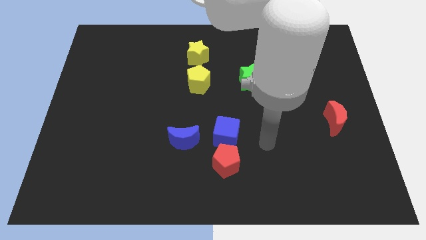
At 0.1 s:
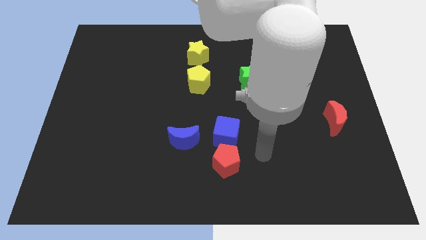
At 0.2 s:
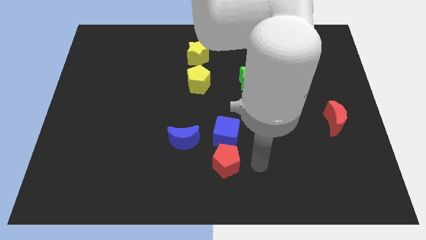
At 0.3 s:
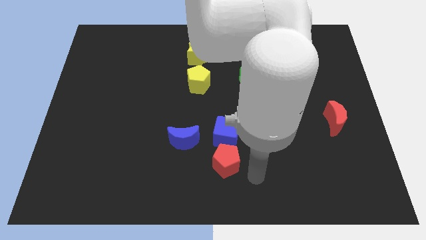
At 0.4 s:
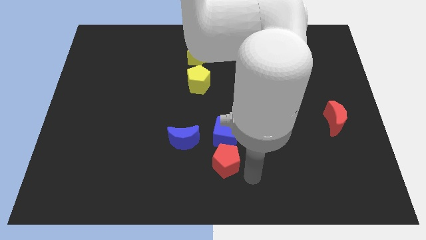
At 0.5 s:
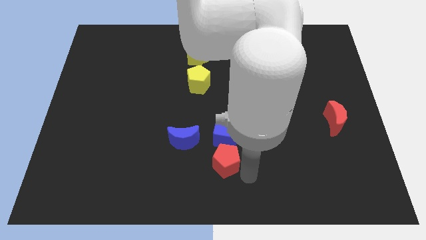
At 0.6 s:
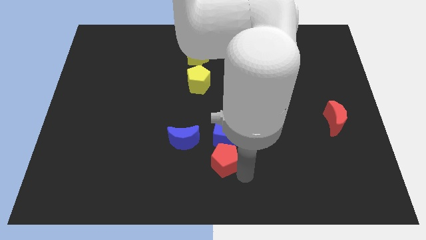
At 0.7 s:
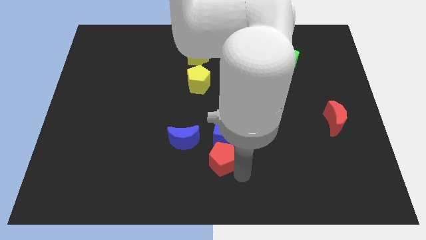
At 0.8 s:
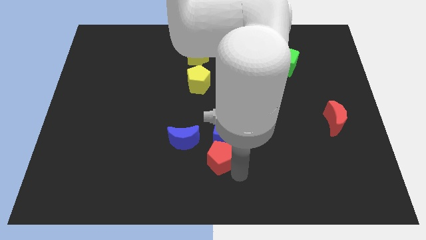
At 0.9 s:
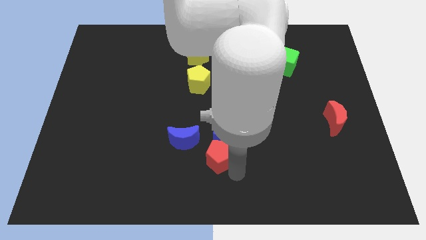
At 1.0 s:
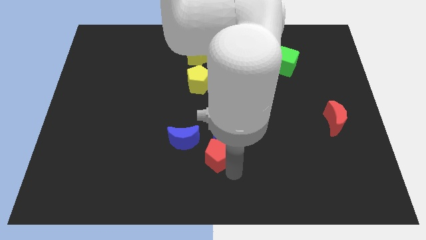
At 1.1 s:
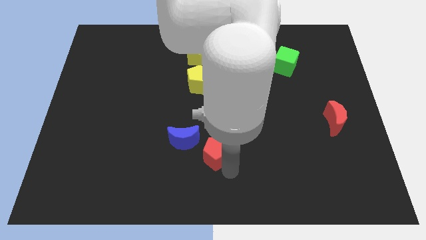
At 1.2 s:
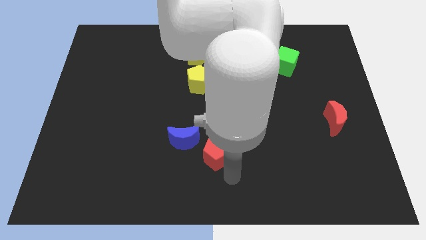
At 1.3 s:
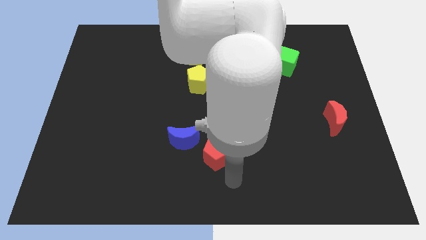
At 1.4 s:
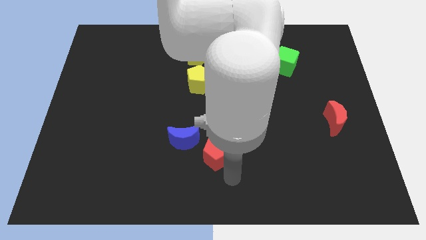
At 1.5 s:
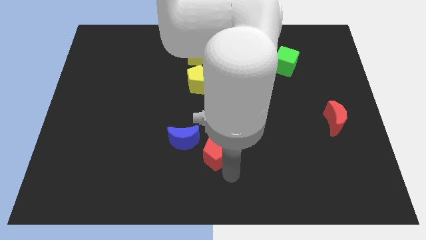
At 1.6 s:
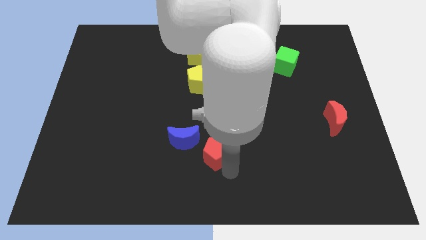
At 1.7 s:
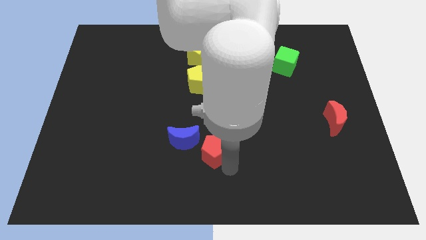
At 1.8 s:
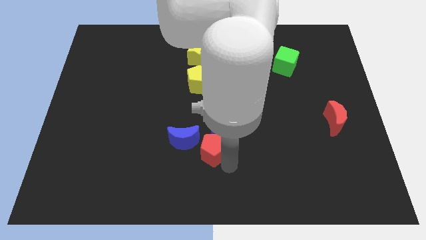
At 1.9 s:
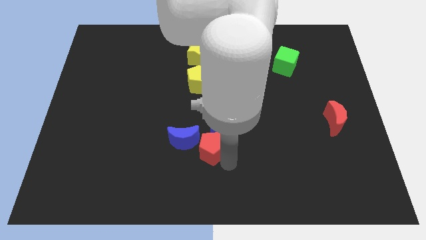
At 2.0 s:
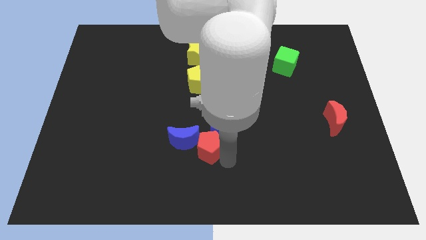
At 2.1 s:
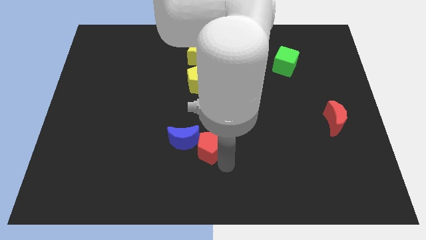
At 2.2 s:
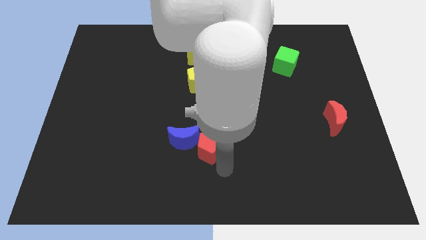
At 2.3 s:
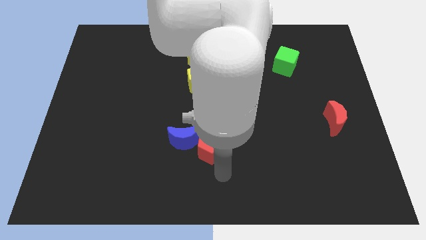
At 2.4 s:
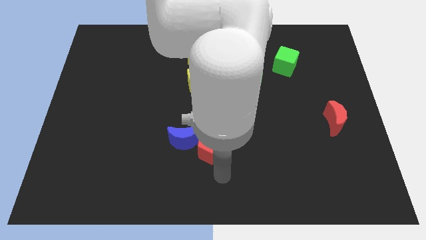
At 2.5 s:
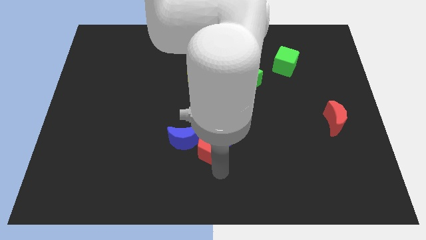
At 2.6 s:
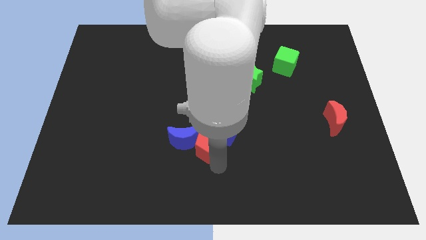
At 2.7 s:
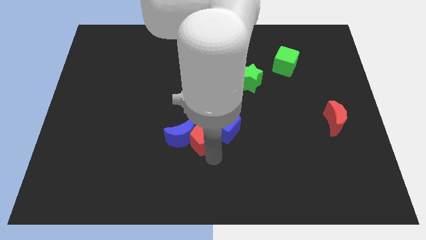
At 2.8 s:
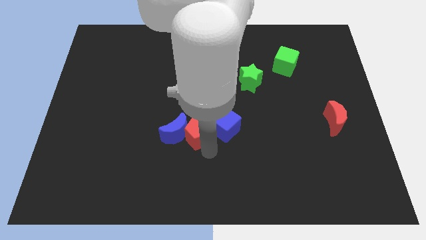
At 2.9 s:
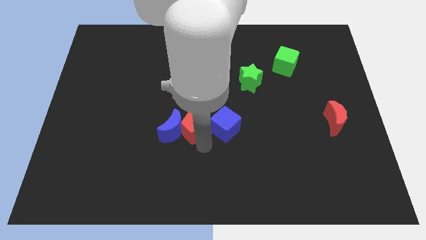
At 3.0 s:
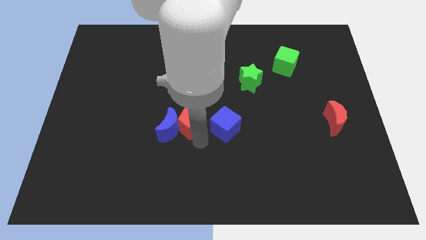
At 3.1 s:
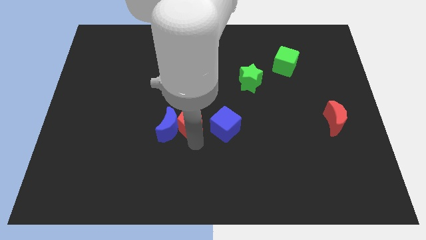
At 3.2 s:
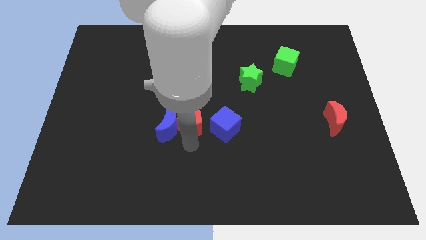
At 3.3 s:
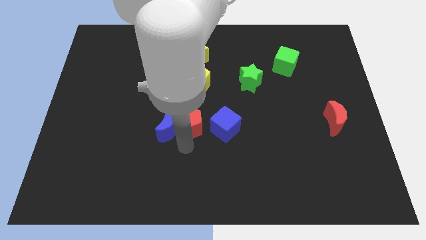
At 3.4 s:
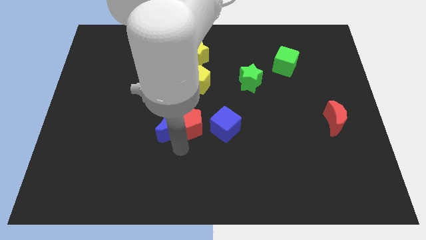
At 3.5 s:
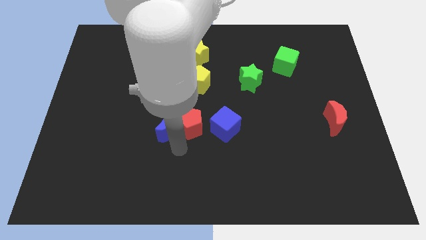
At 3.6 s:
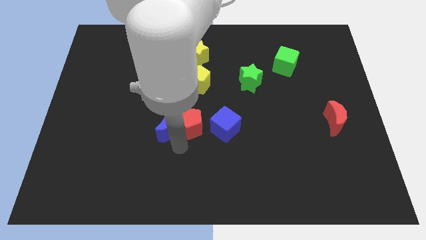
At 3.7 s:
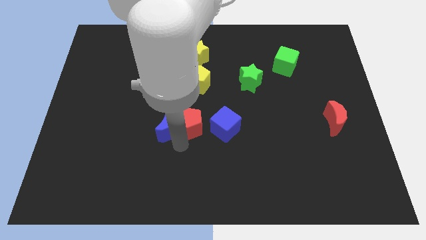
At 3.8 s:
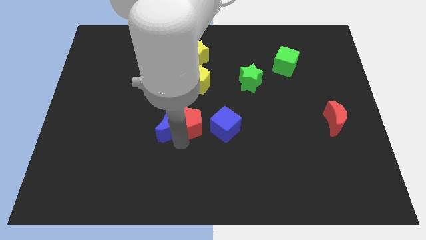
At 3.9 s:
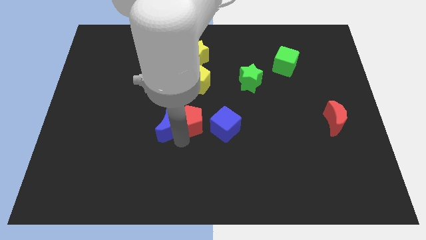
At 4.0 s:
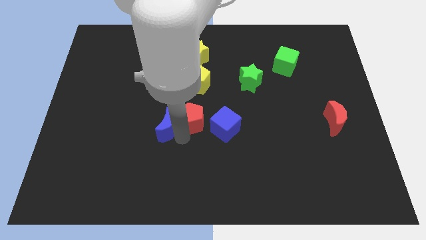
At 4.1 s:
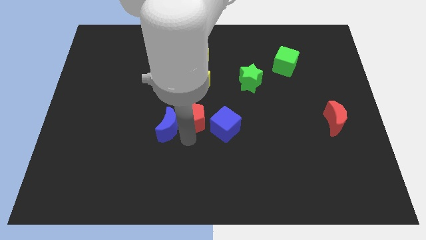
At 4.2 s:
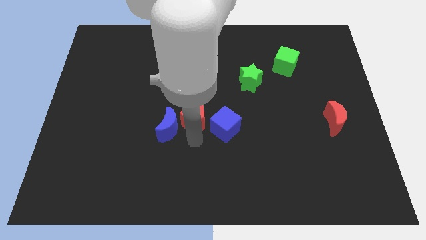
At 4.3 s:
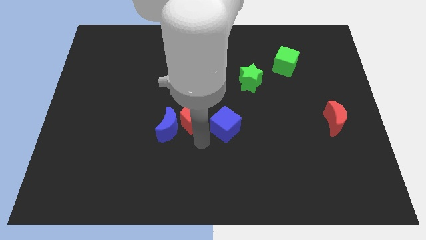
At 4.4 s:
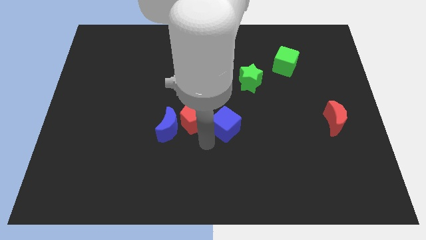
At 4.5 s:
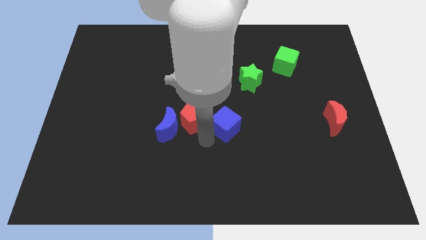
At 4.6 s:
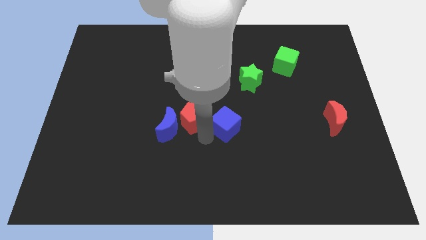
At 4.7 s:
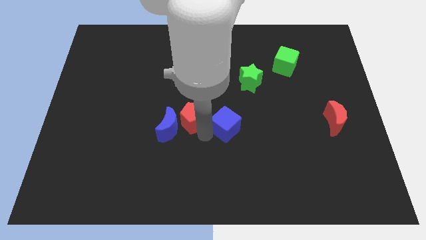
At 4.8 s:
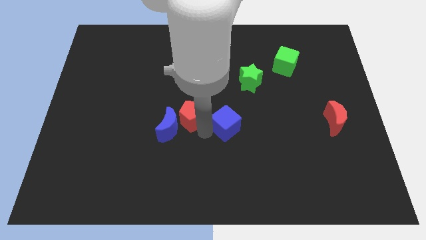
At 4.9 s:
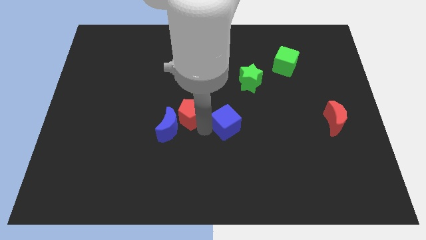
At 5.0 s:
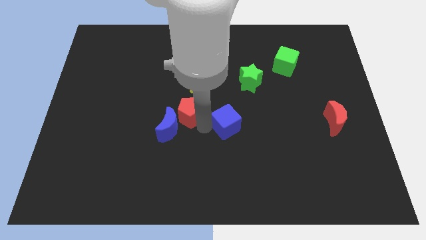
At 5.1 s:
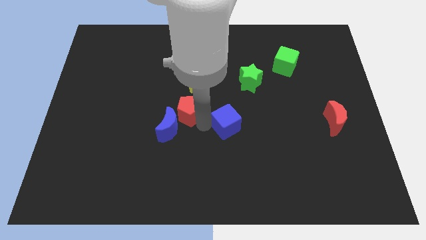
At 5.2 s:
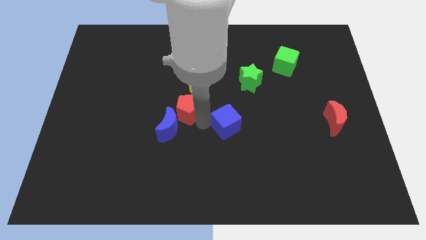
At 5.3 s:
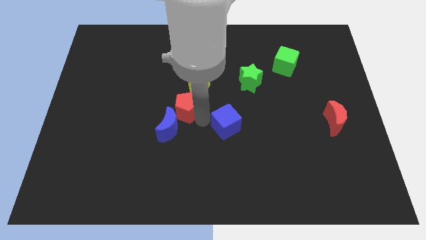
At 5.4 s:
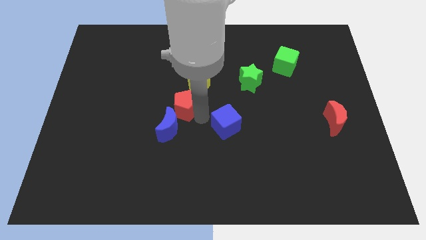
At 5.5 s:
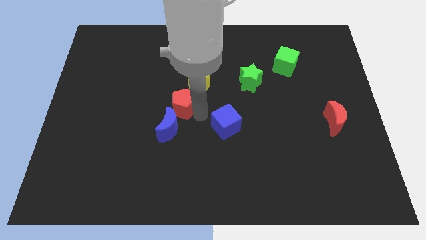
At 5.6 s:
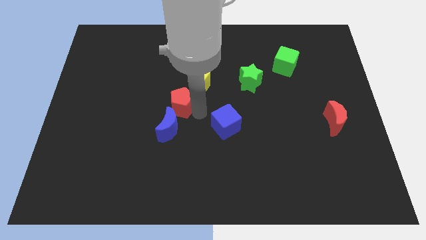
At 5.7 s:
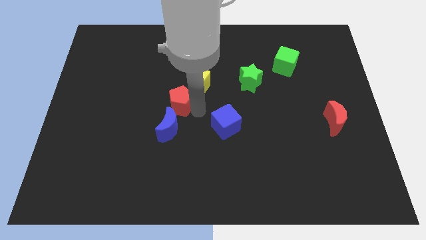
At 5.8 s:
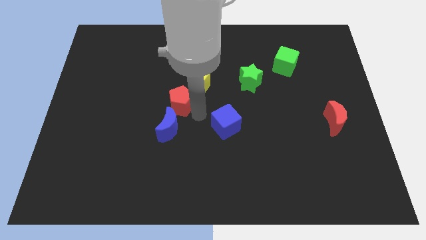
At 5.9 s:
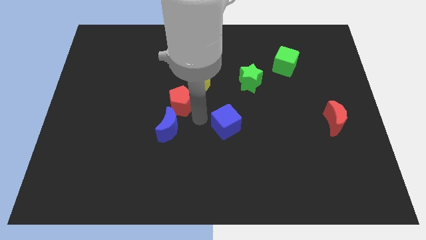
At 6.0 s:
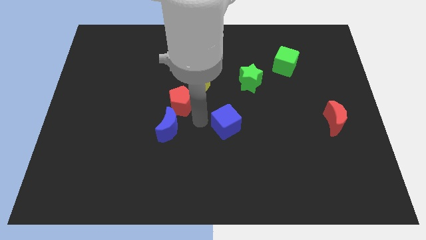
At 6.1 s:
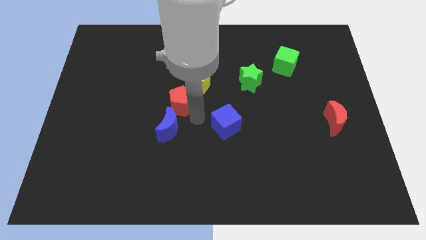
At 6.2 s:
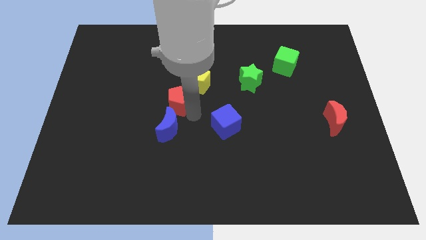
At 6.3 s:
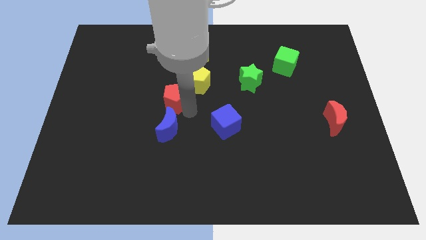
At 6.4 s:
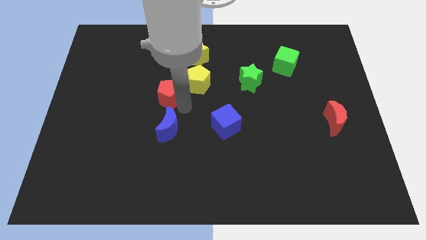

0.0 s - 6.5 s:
put the red pentagon to the left of the yellow pentagon

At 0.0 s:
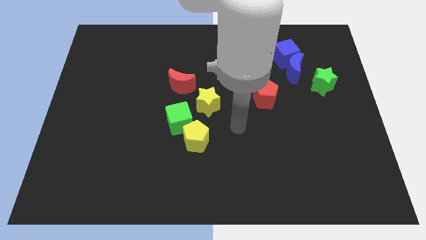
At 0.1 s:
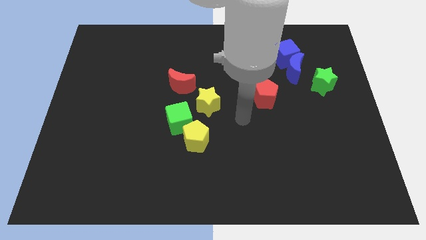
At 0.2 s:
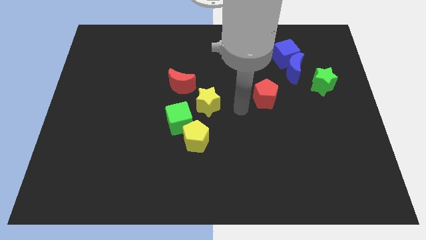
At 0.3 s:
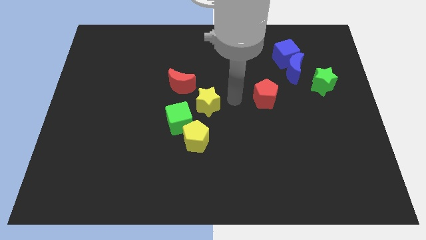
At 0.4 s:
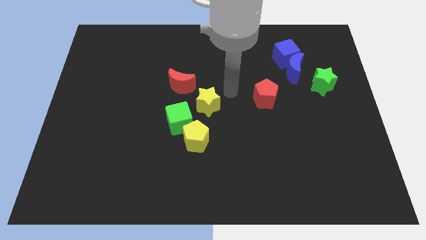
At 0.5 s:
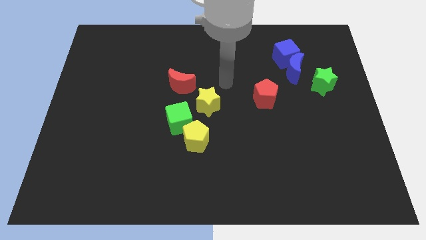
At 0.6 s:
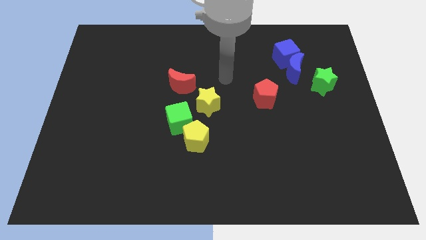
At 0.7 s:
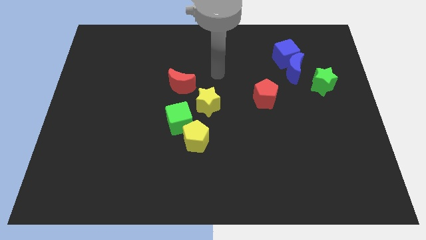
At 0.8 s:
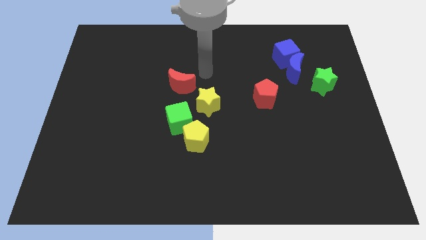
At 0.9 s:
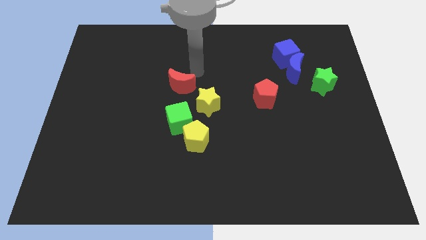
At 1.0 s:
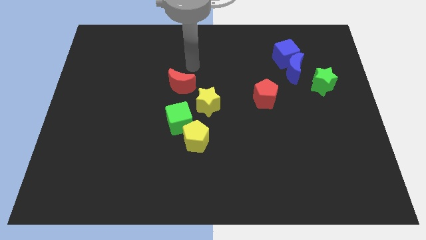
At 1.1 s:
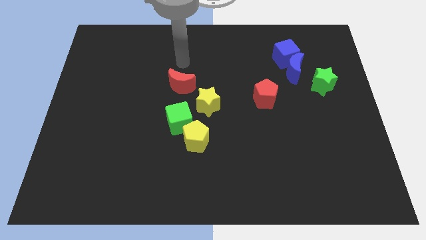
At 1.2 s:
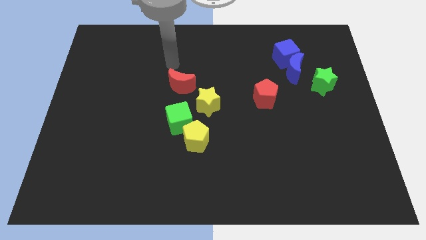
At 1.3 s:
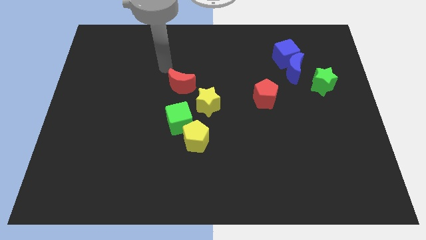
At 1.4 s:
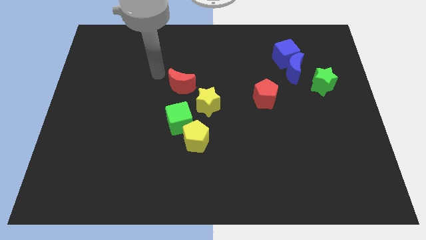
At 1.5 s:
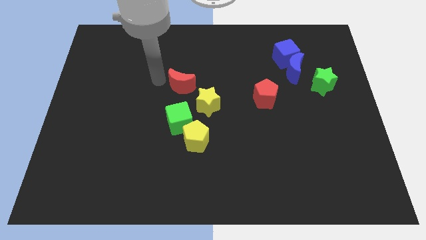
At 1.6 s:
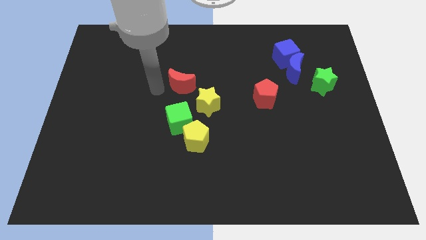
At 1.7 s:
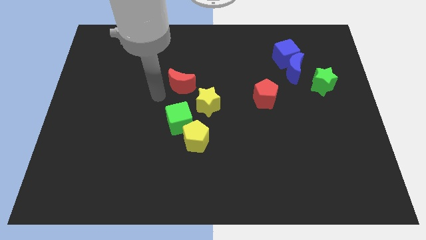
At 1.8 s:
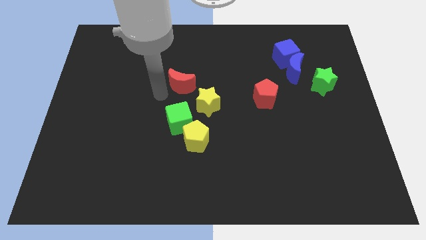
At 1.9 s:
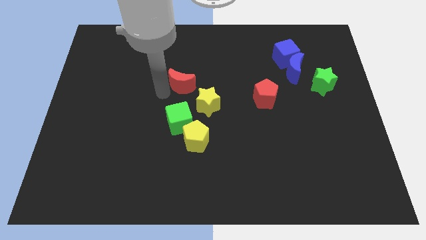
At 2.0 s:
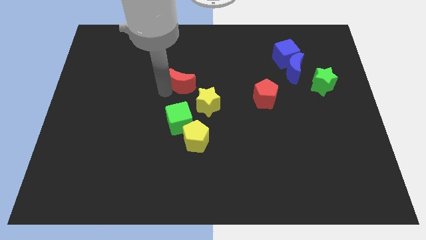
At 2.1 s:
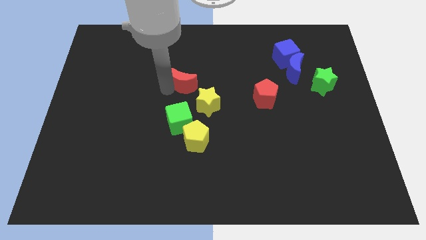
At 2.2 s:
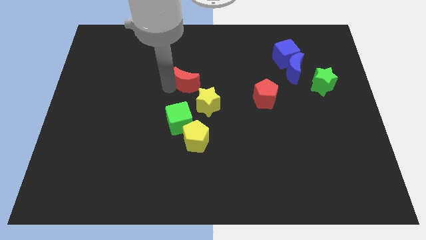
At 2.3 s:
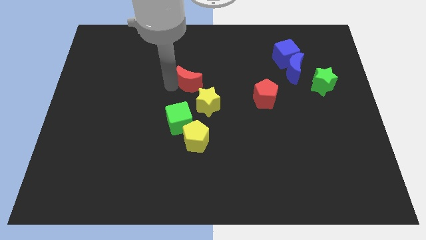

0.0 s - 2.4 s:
move the red moon to the top of the yellow star
